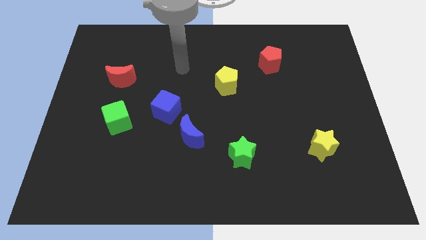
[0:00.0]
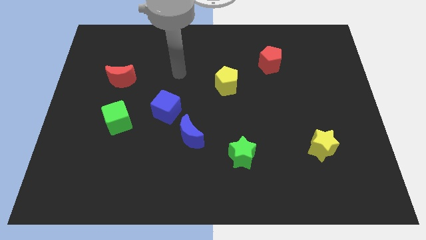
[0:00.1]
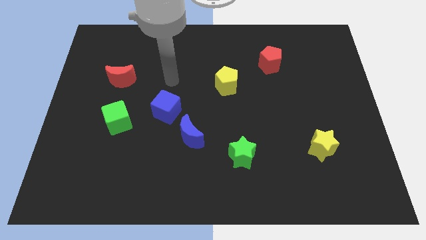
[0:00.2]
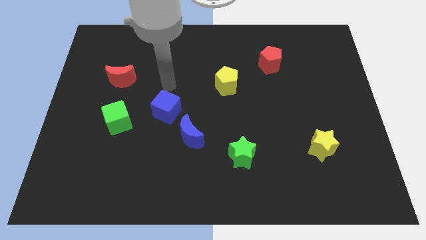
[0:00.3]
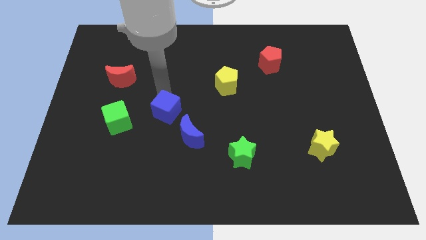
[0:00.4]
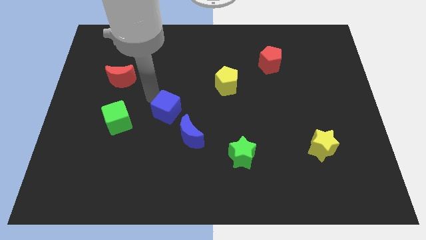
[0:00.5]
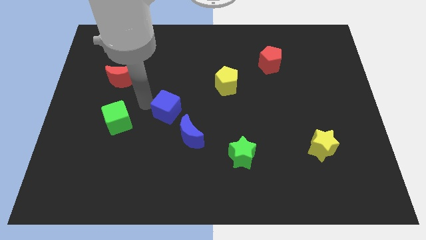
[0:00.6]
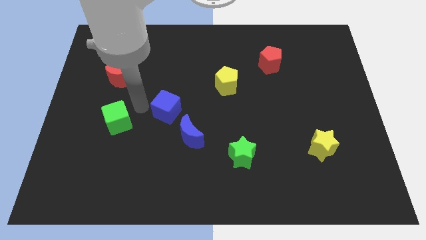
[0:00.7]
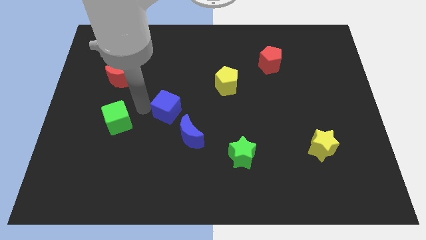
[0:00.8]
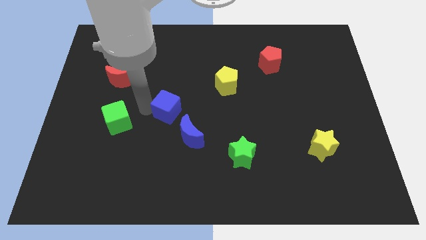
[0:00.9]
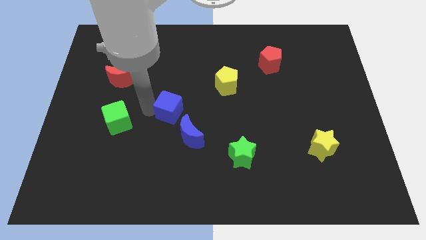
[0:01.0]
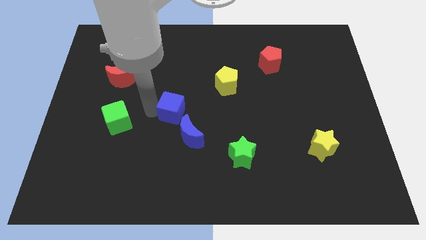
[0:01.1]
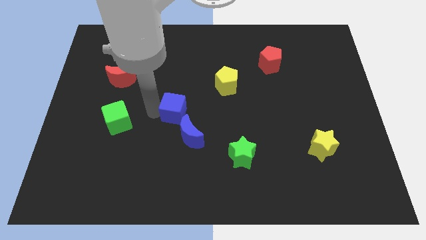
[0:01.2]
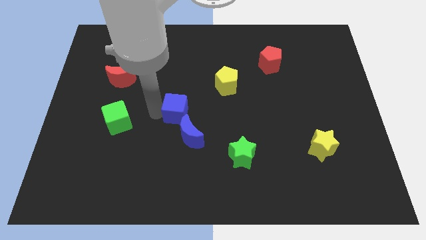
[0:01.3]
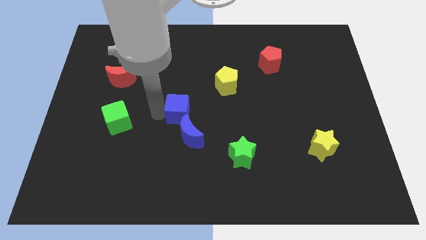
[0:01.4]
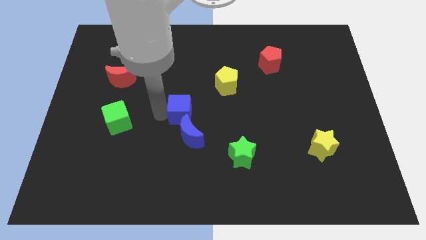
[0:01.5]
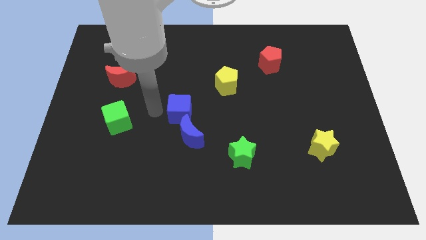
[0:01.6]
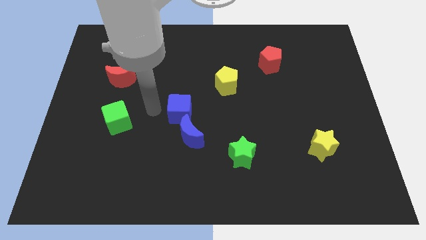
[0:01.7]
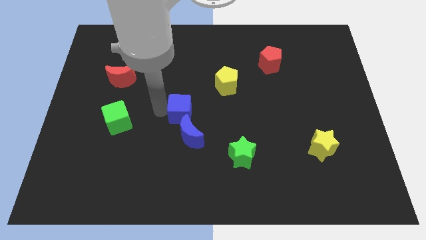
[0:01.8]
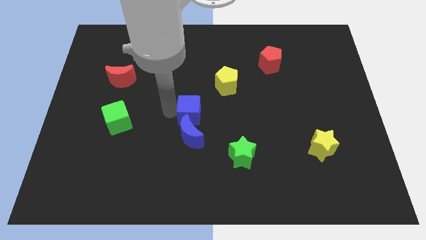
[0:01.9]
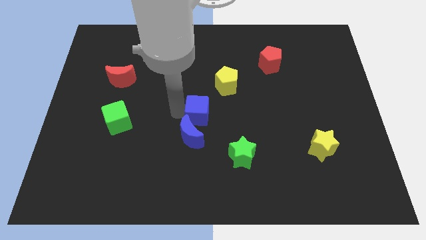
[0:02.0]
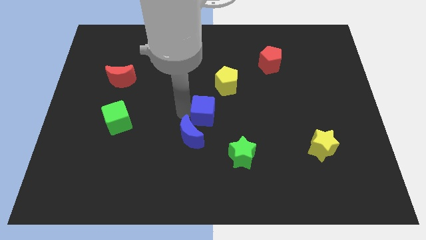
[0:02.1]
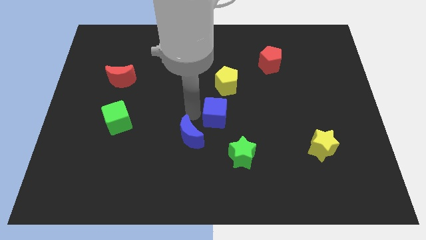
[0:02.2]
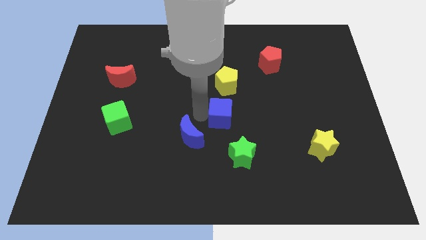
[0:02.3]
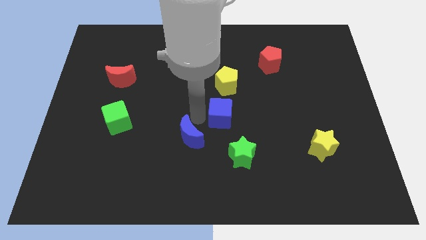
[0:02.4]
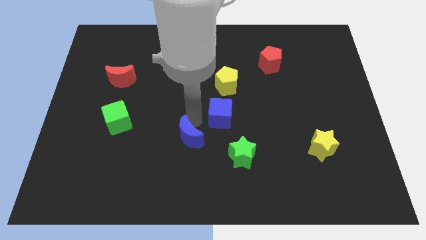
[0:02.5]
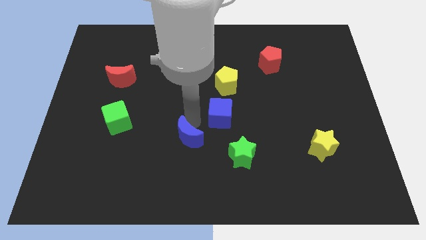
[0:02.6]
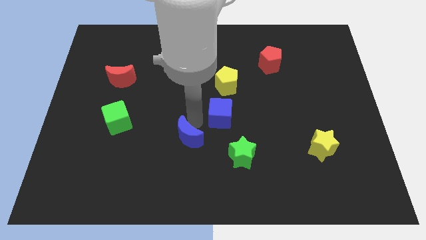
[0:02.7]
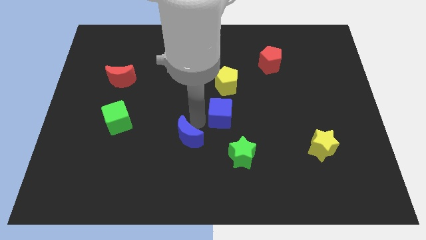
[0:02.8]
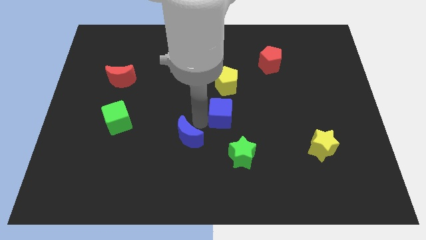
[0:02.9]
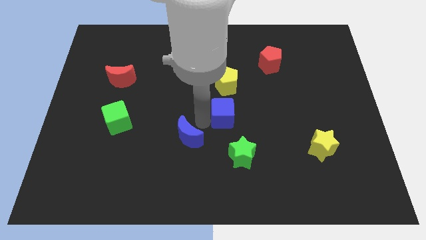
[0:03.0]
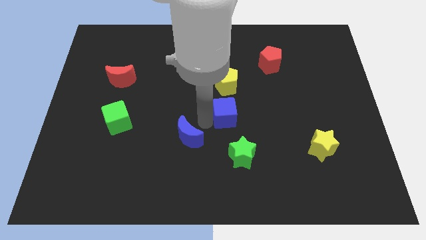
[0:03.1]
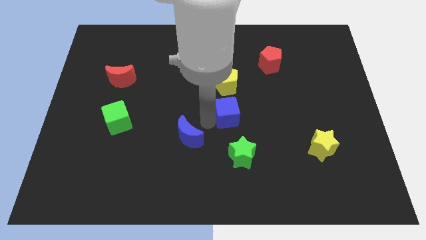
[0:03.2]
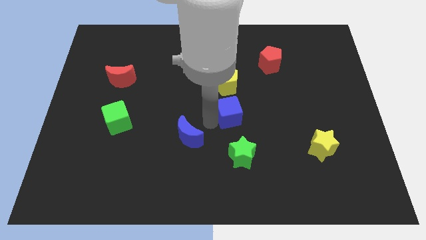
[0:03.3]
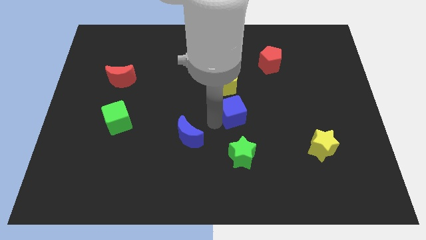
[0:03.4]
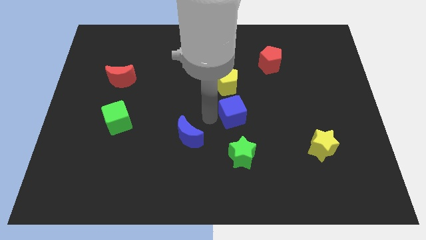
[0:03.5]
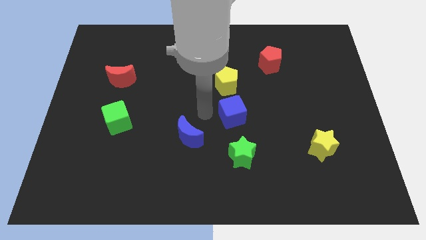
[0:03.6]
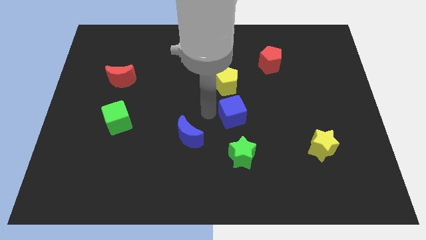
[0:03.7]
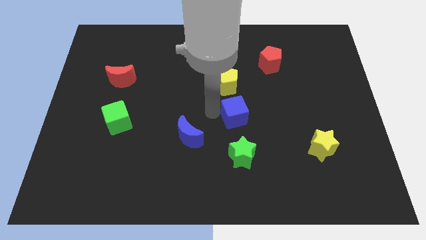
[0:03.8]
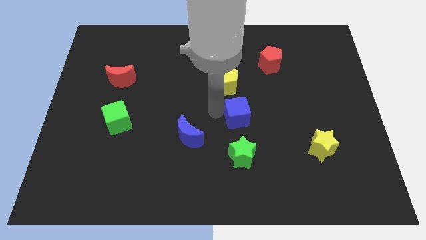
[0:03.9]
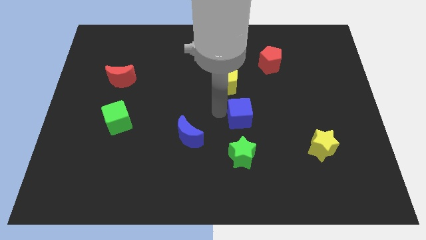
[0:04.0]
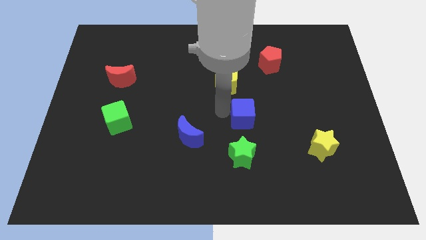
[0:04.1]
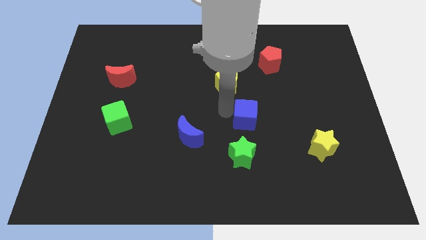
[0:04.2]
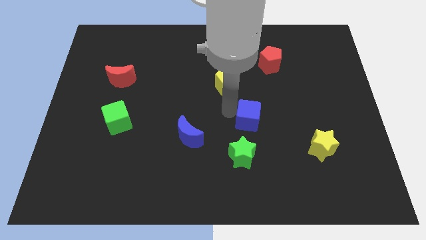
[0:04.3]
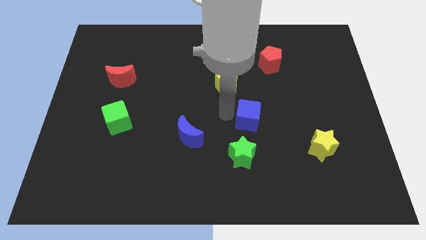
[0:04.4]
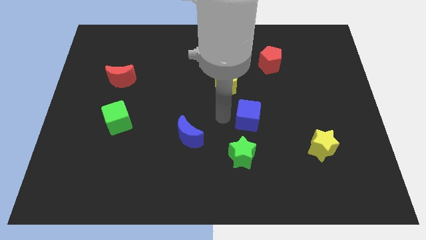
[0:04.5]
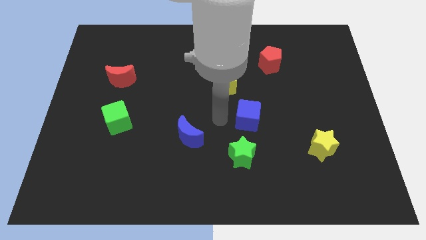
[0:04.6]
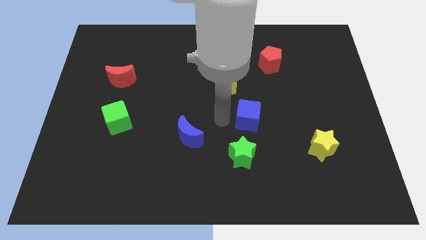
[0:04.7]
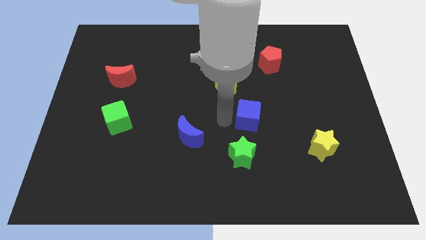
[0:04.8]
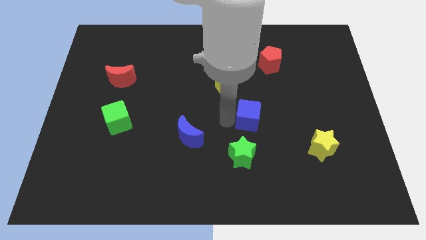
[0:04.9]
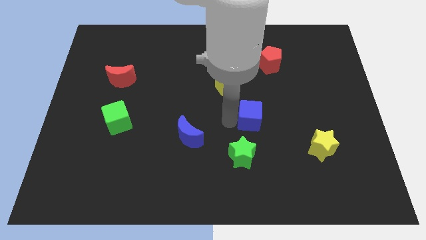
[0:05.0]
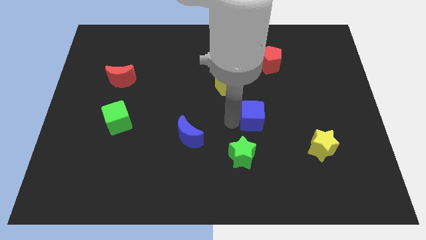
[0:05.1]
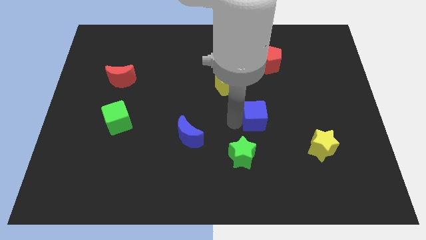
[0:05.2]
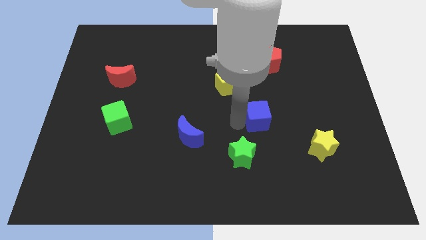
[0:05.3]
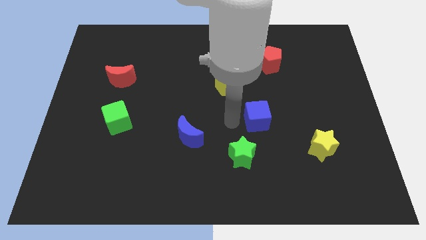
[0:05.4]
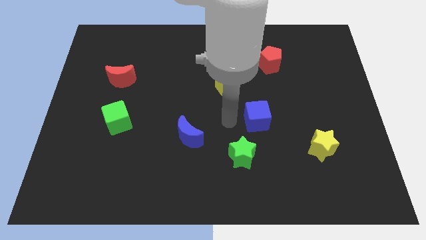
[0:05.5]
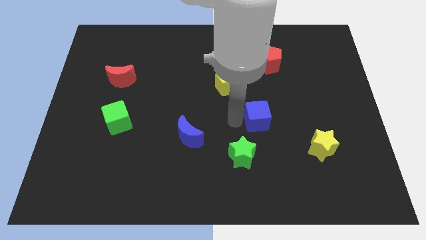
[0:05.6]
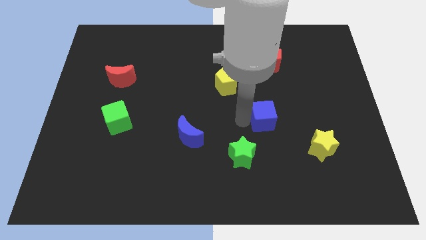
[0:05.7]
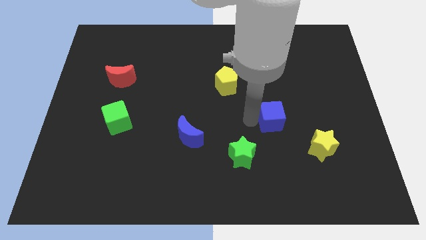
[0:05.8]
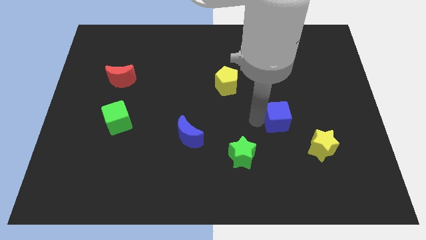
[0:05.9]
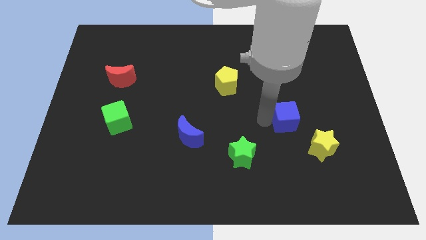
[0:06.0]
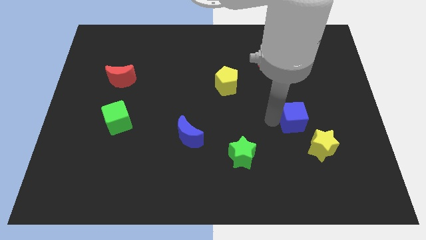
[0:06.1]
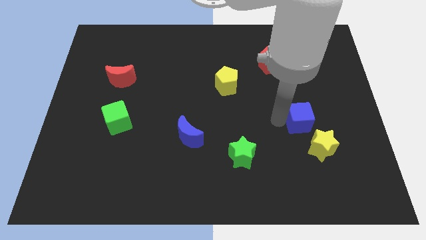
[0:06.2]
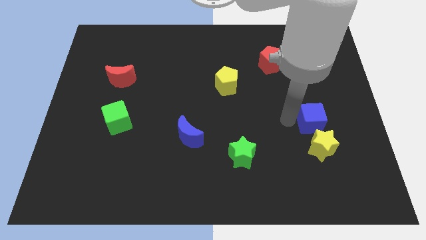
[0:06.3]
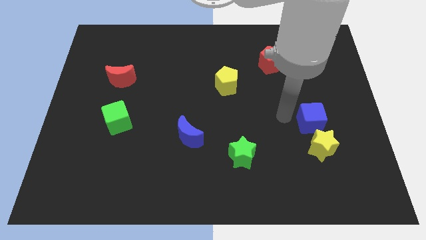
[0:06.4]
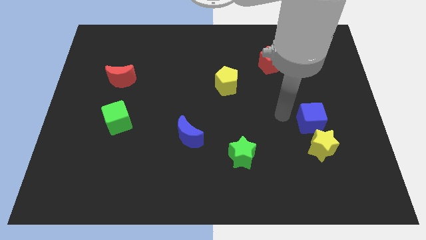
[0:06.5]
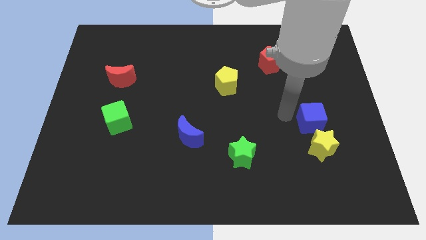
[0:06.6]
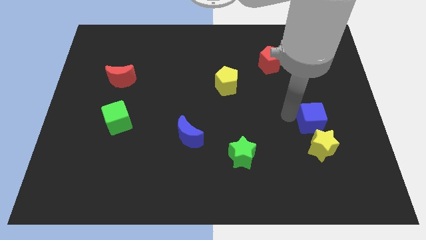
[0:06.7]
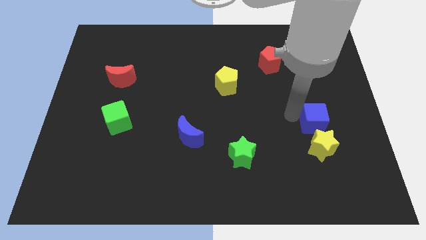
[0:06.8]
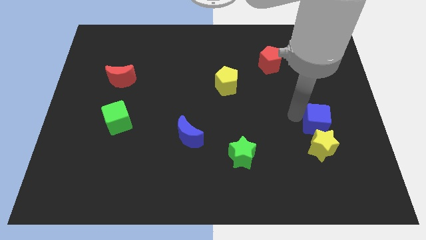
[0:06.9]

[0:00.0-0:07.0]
push the blue cube diagonally up and to the right of the yellow star

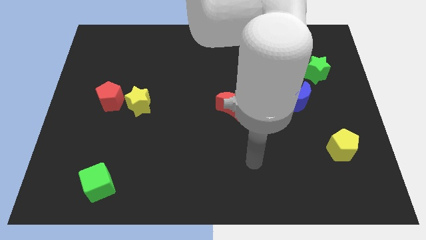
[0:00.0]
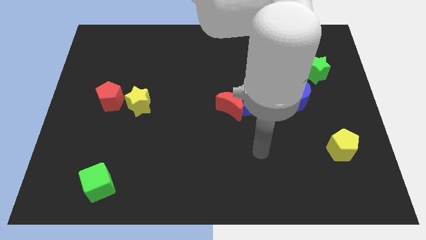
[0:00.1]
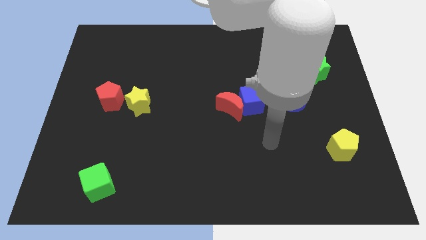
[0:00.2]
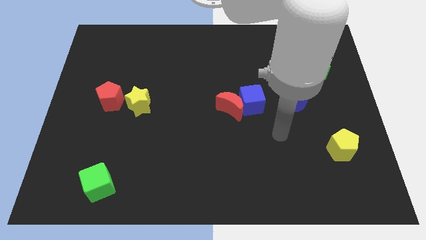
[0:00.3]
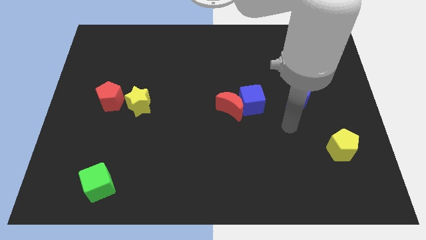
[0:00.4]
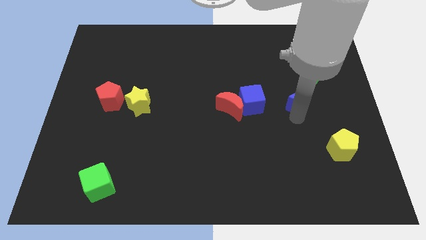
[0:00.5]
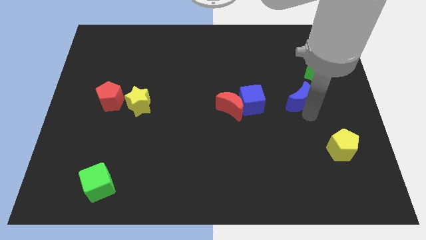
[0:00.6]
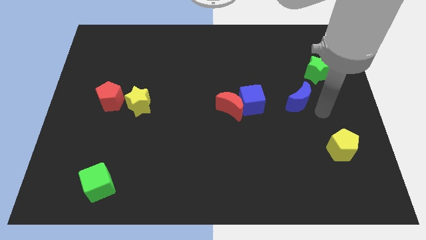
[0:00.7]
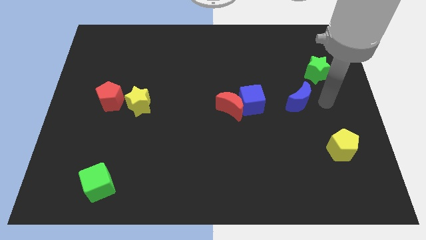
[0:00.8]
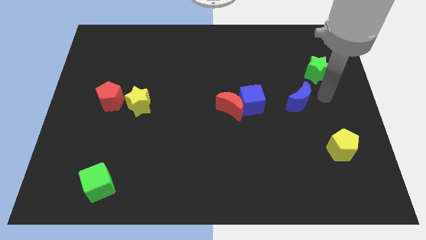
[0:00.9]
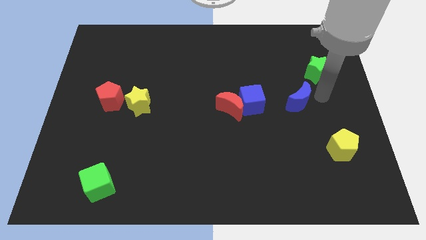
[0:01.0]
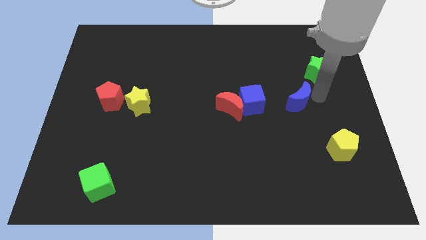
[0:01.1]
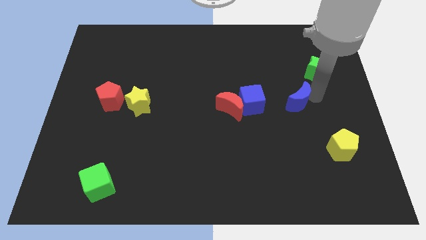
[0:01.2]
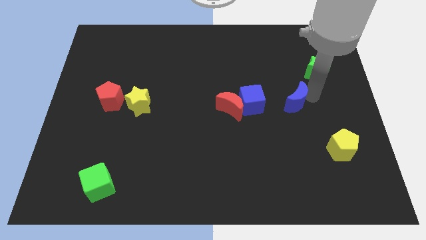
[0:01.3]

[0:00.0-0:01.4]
put the blue moon just right of the red moon
